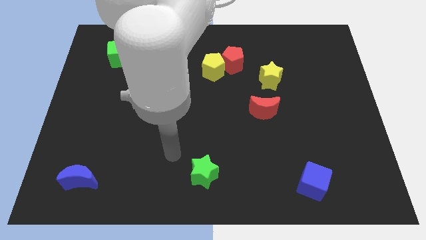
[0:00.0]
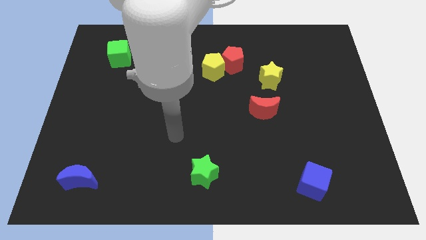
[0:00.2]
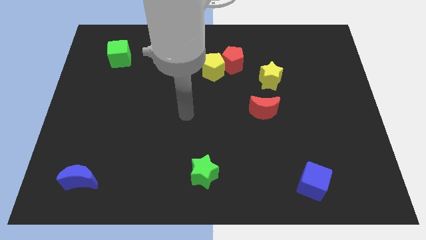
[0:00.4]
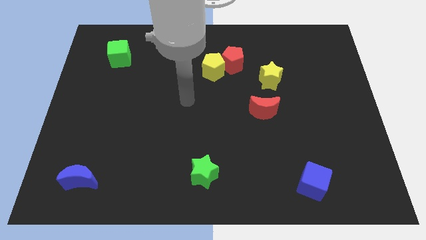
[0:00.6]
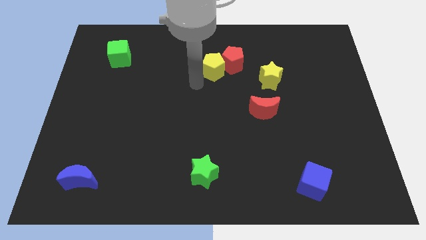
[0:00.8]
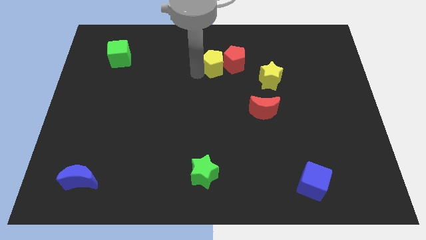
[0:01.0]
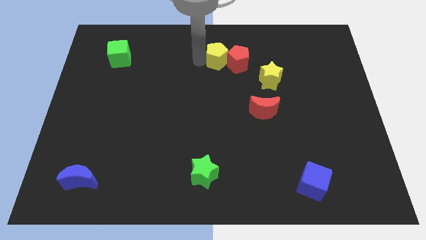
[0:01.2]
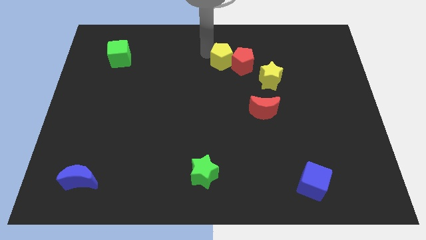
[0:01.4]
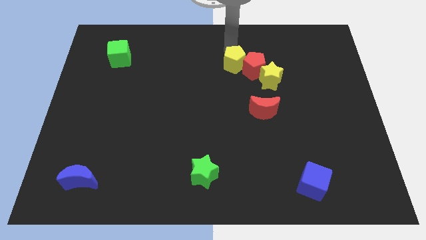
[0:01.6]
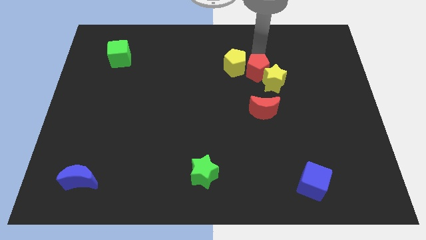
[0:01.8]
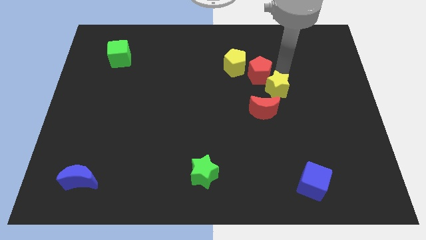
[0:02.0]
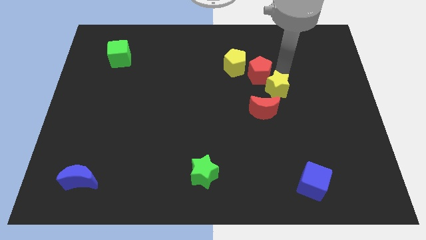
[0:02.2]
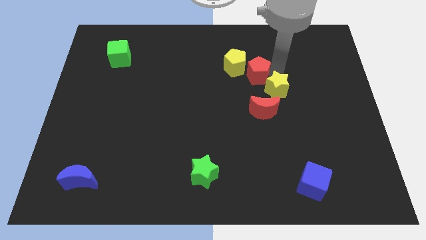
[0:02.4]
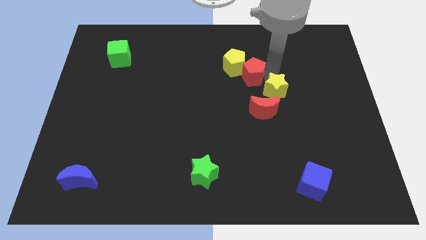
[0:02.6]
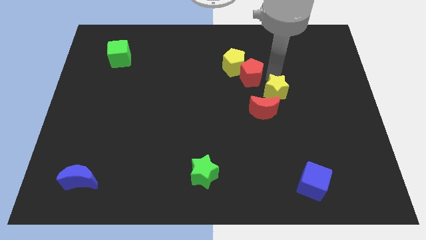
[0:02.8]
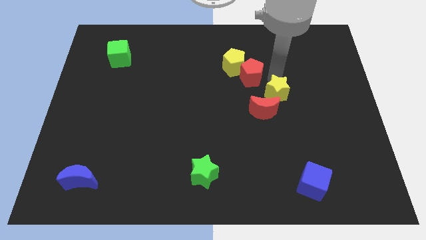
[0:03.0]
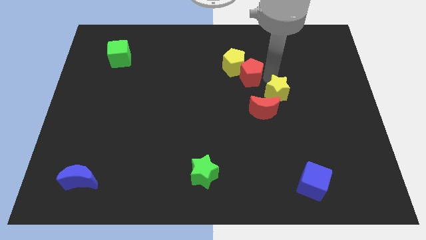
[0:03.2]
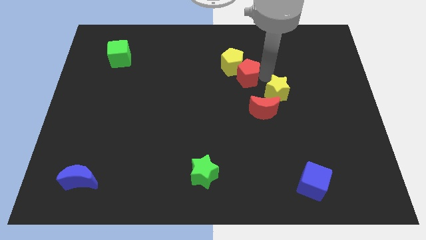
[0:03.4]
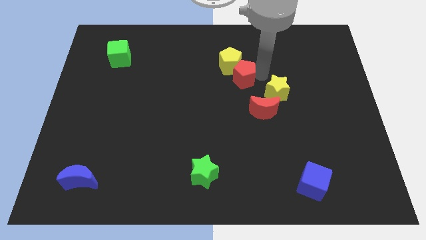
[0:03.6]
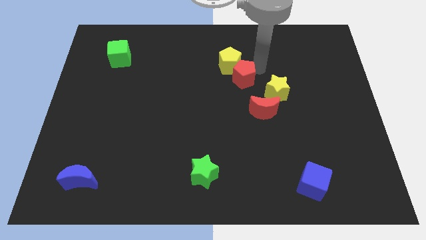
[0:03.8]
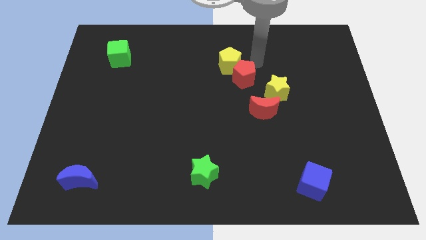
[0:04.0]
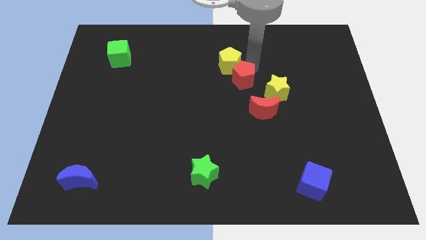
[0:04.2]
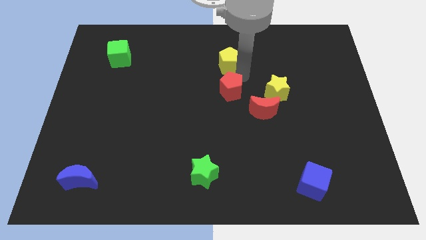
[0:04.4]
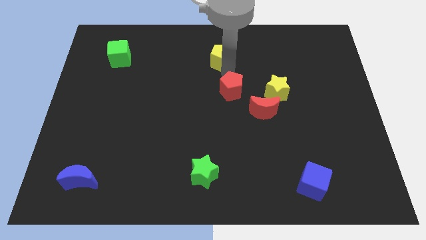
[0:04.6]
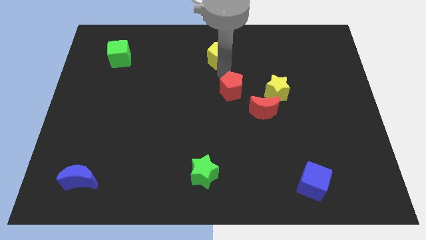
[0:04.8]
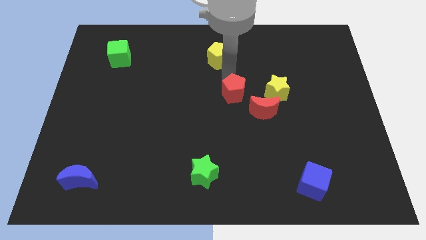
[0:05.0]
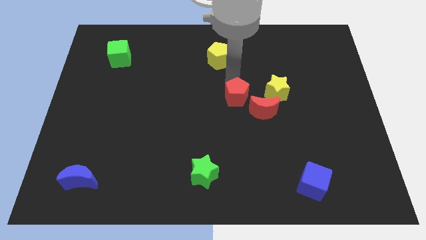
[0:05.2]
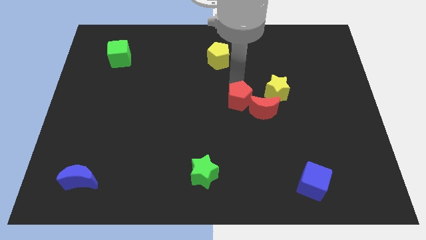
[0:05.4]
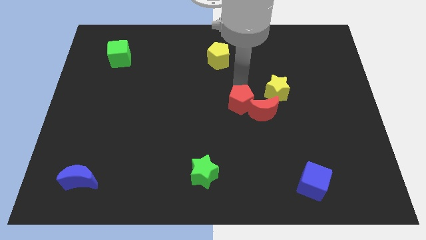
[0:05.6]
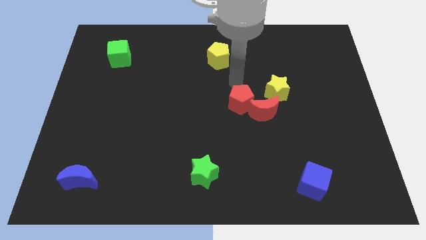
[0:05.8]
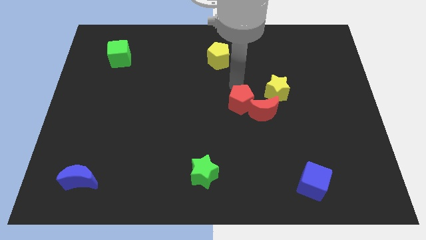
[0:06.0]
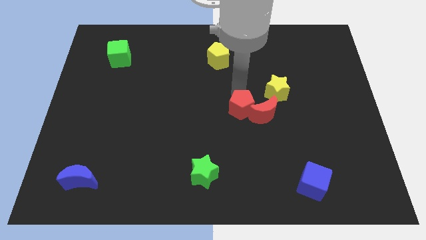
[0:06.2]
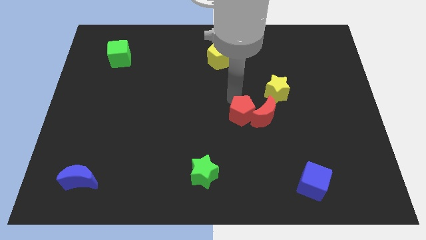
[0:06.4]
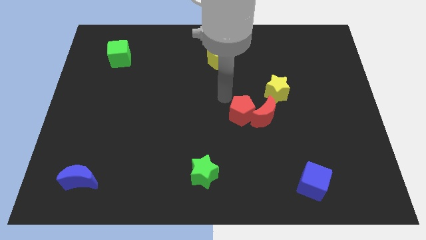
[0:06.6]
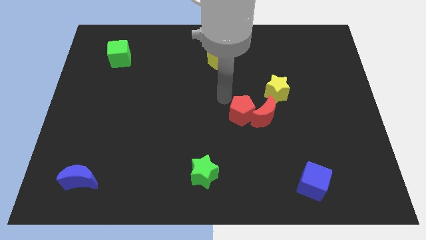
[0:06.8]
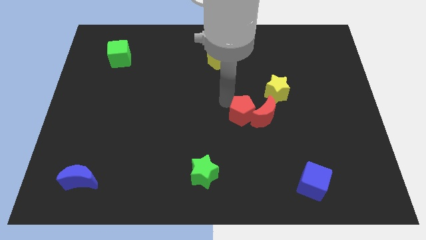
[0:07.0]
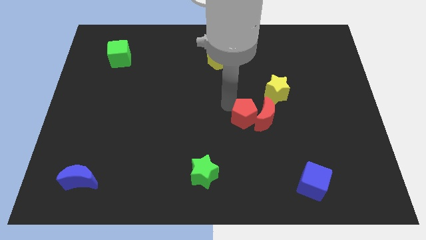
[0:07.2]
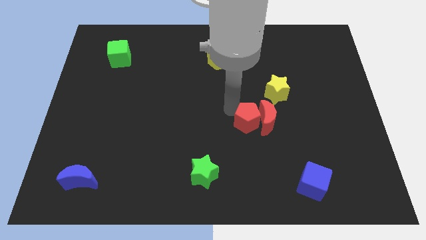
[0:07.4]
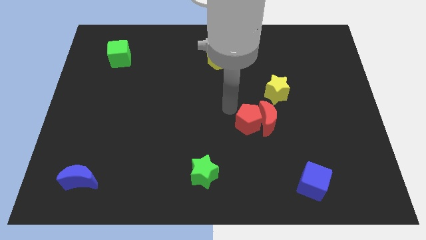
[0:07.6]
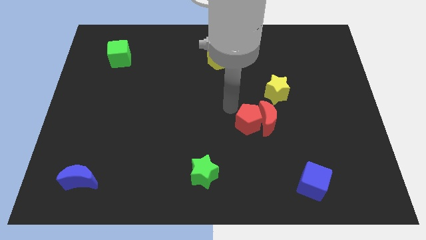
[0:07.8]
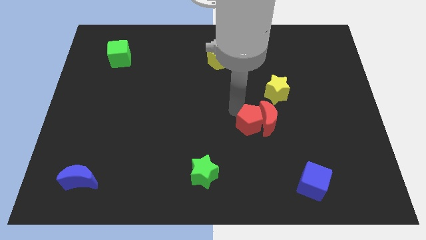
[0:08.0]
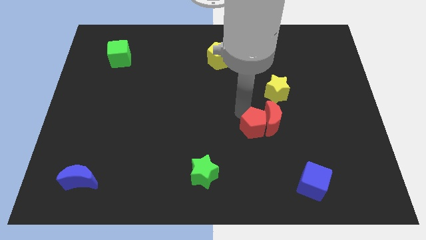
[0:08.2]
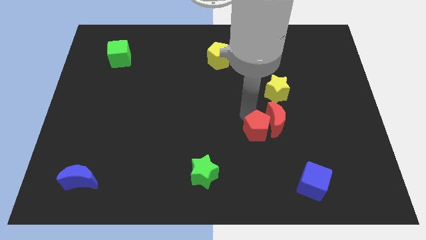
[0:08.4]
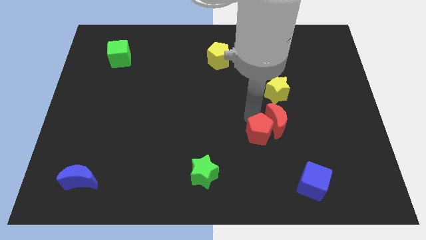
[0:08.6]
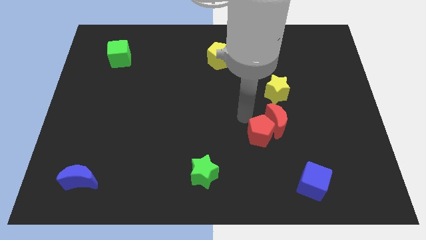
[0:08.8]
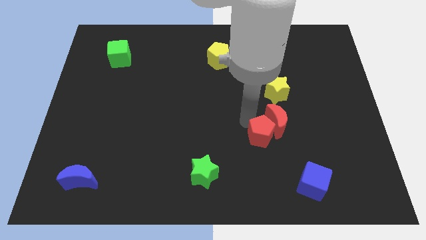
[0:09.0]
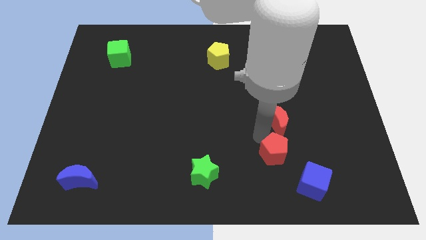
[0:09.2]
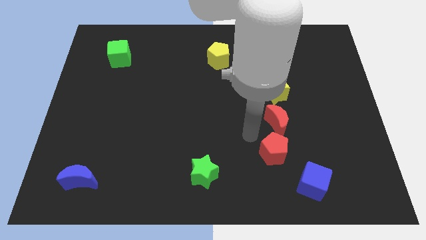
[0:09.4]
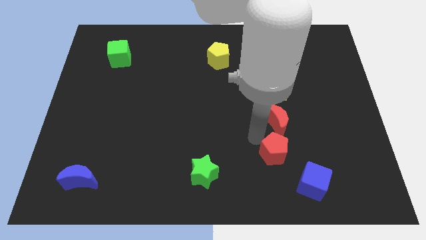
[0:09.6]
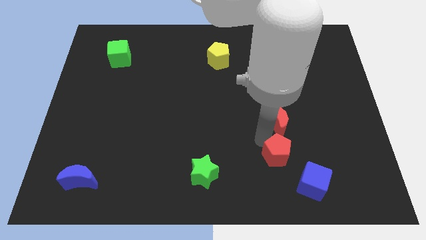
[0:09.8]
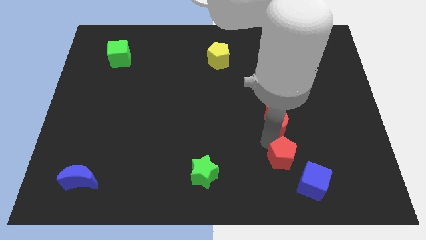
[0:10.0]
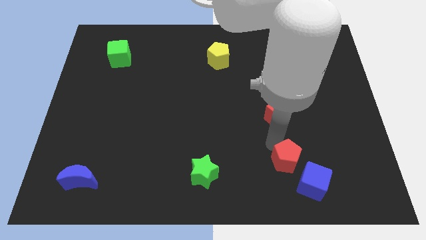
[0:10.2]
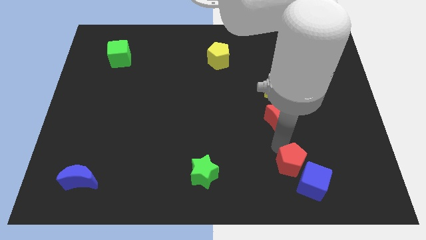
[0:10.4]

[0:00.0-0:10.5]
push the red pentagon close to the blue cube

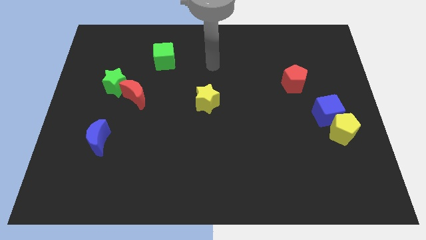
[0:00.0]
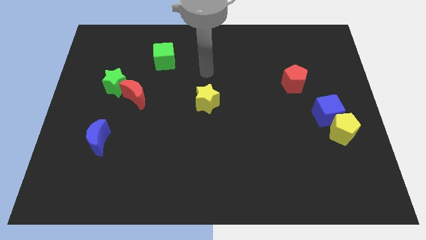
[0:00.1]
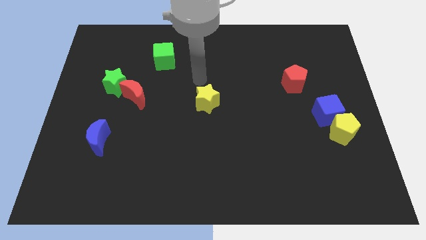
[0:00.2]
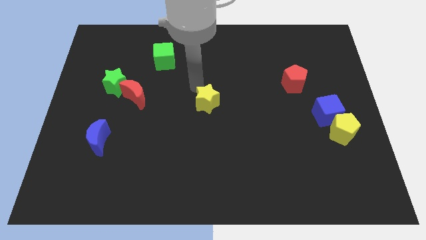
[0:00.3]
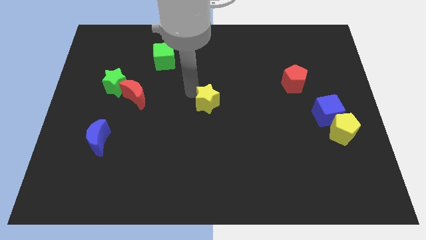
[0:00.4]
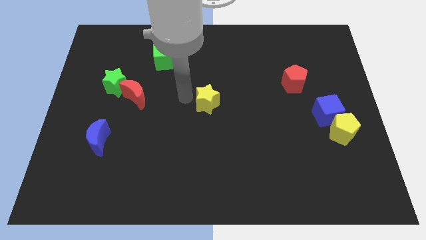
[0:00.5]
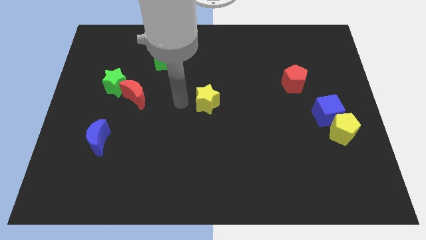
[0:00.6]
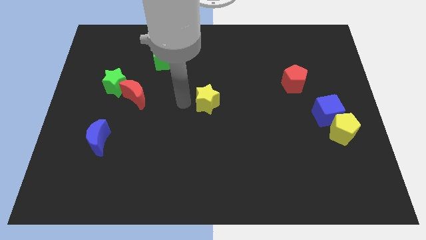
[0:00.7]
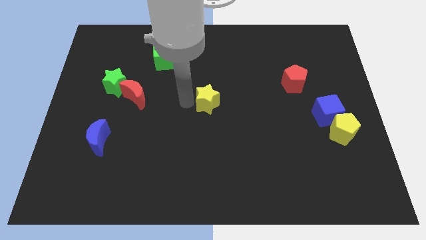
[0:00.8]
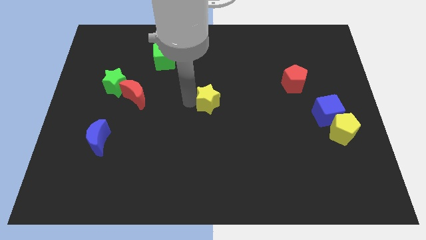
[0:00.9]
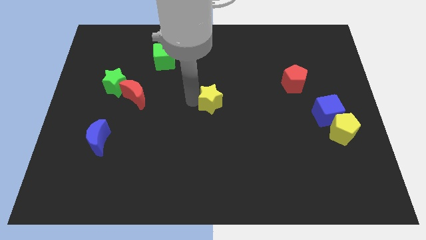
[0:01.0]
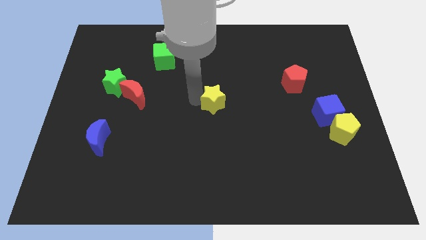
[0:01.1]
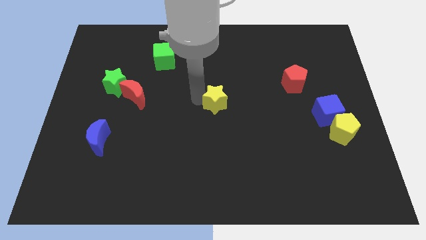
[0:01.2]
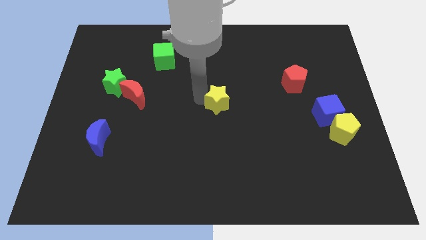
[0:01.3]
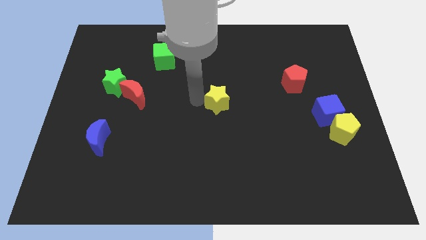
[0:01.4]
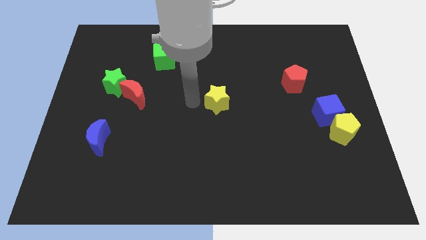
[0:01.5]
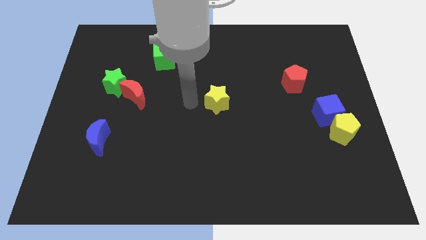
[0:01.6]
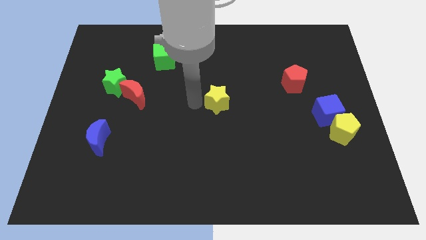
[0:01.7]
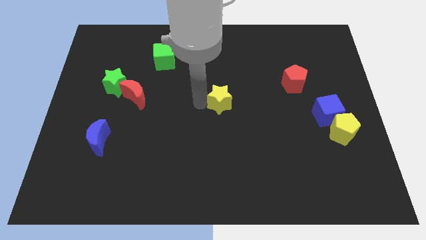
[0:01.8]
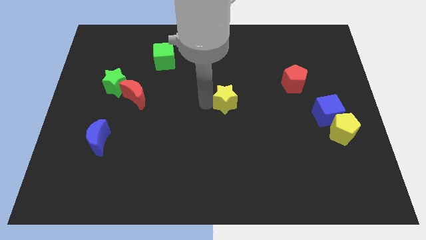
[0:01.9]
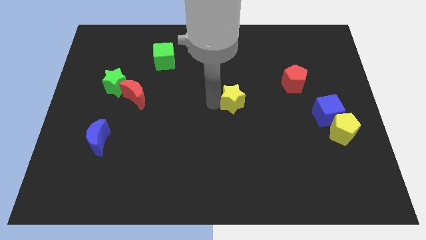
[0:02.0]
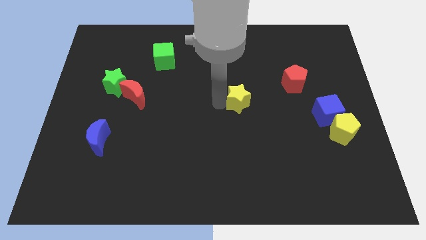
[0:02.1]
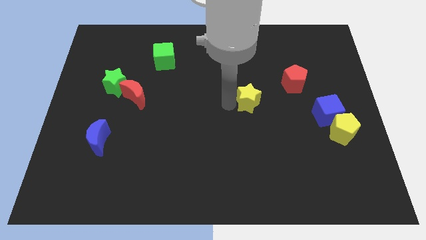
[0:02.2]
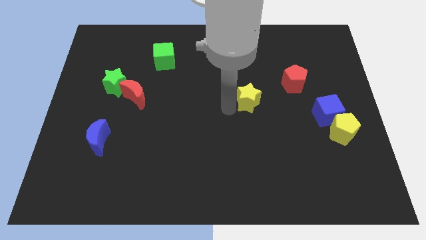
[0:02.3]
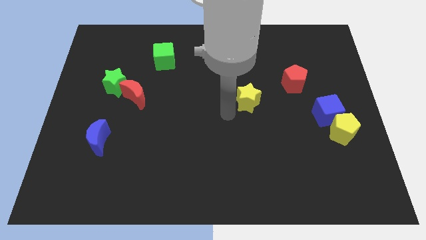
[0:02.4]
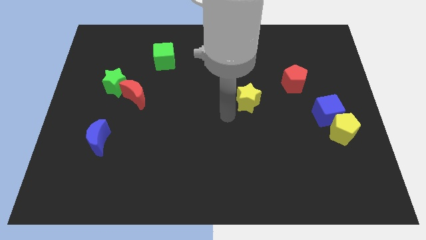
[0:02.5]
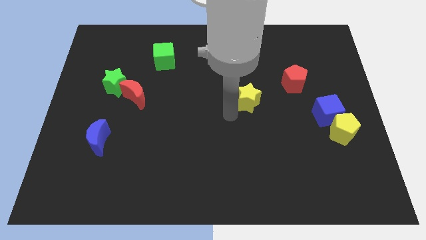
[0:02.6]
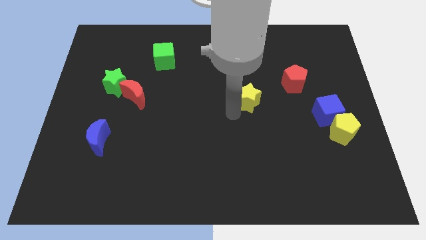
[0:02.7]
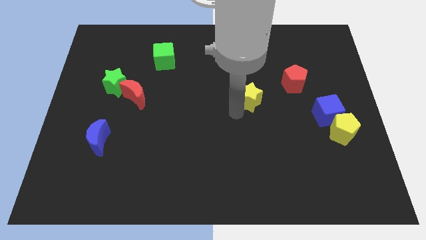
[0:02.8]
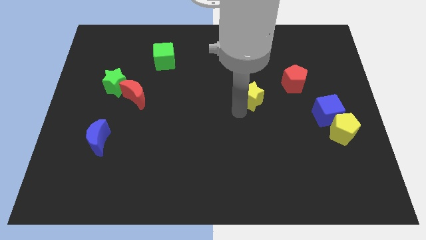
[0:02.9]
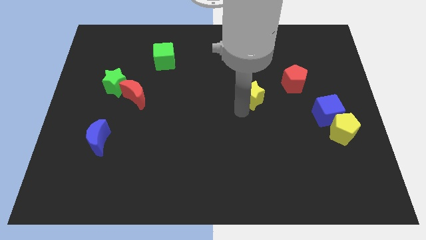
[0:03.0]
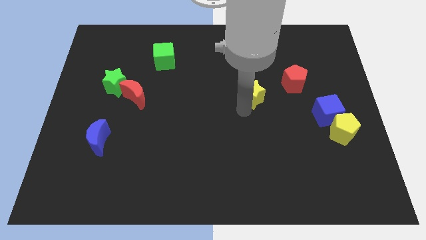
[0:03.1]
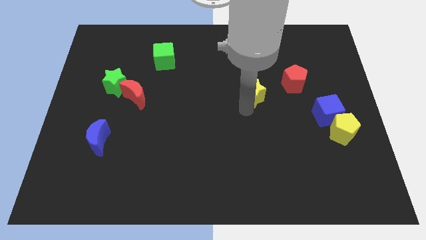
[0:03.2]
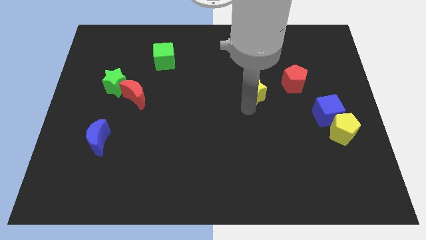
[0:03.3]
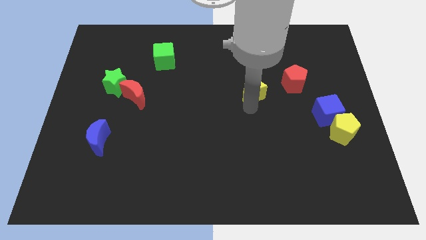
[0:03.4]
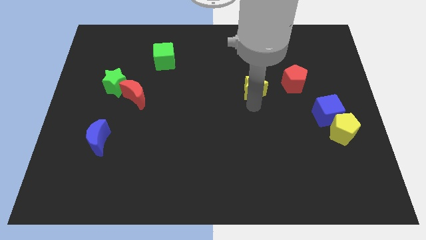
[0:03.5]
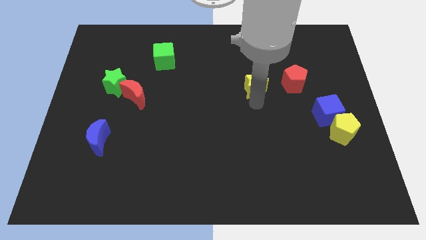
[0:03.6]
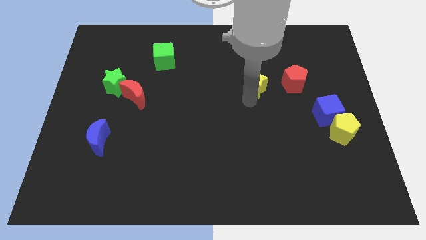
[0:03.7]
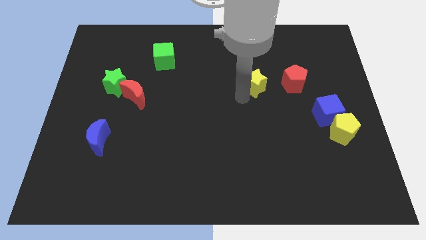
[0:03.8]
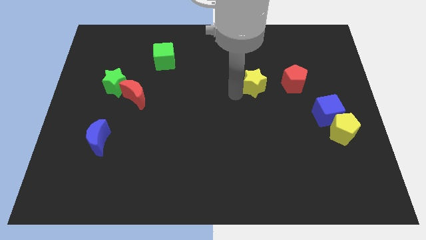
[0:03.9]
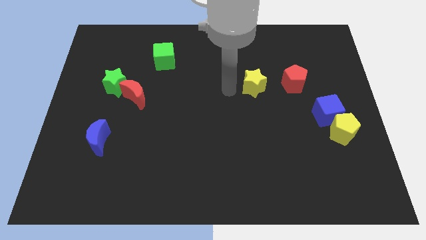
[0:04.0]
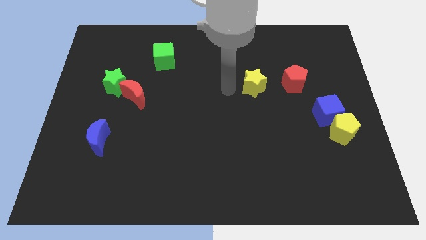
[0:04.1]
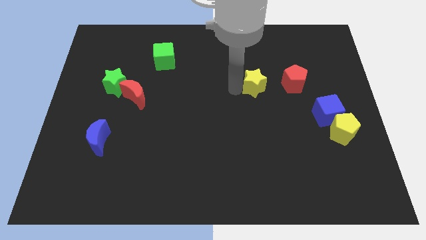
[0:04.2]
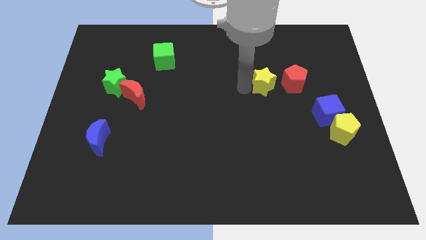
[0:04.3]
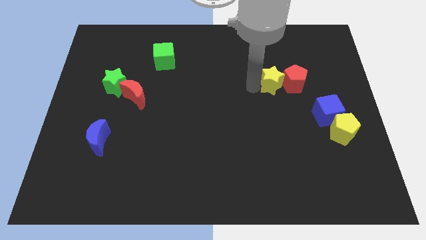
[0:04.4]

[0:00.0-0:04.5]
push the yellow star towards the red pentagon
